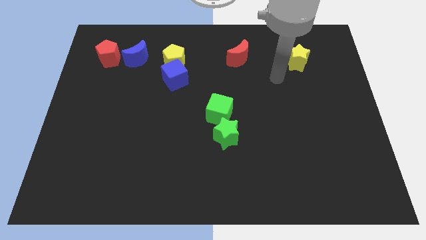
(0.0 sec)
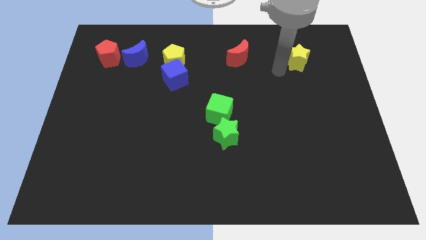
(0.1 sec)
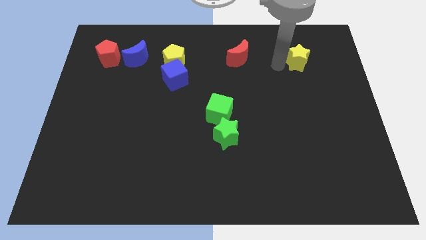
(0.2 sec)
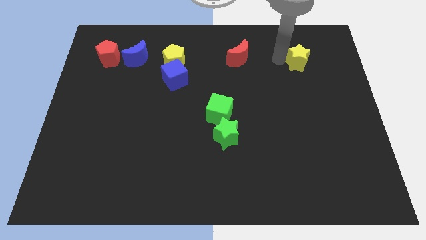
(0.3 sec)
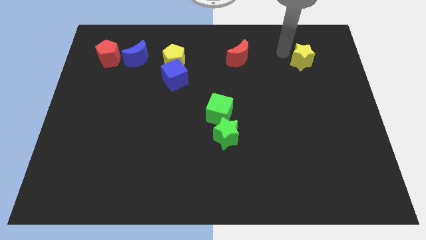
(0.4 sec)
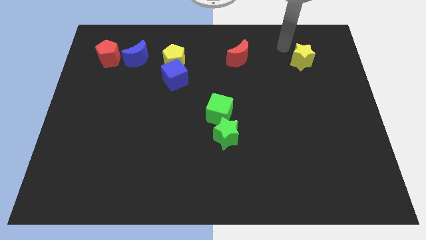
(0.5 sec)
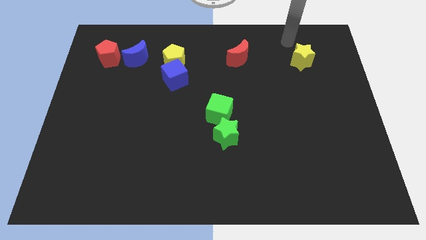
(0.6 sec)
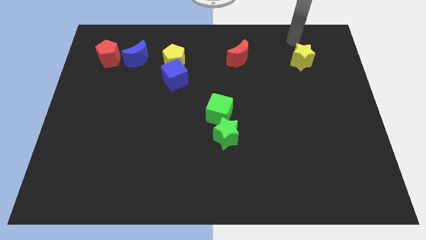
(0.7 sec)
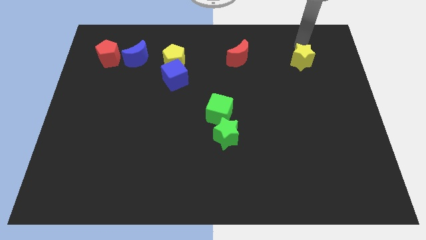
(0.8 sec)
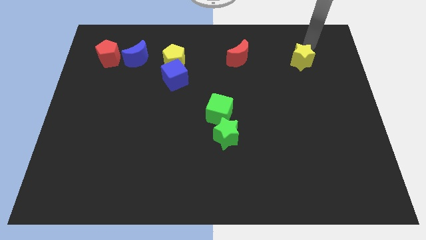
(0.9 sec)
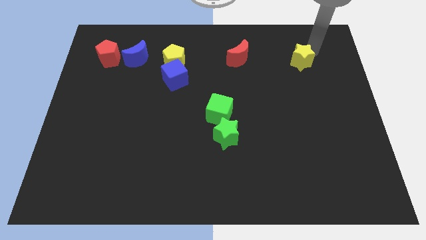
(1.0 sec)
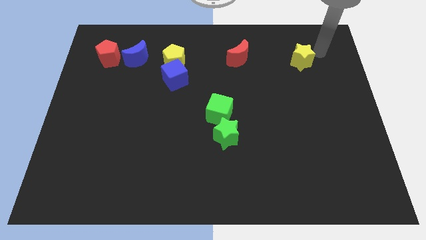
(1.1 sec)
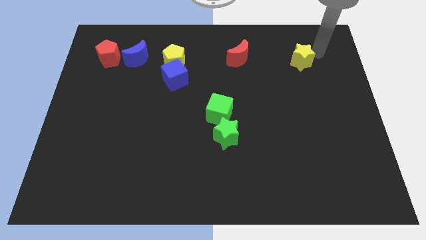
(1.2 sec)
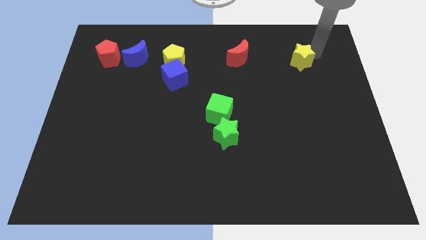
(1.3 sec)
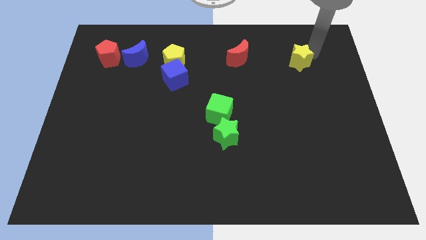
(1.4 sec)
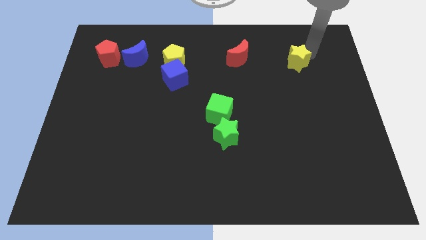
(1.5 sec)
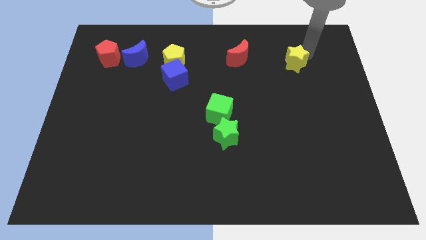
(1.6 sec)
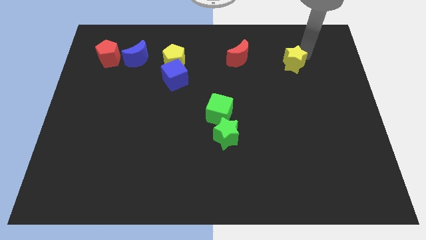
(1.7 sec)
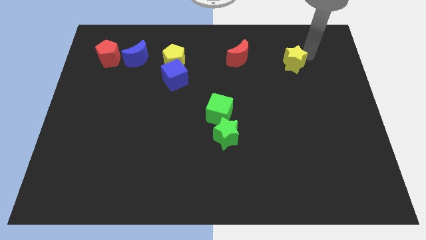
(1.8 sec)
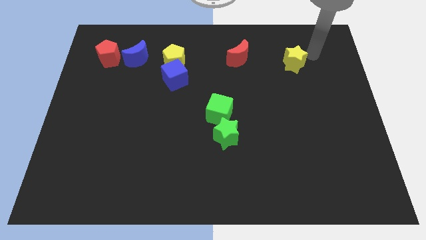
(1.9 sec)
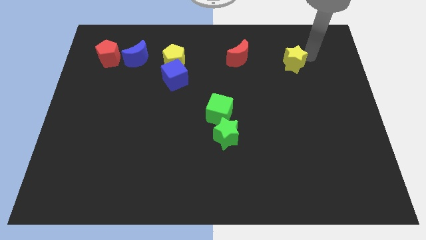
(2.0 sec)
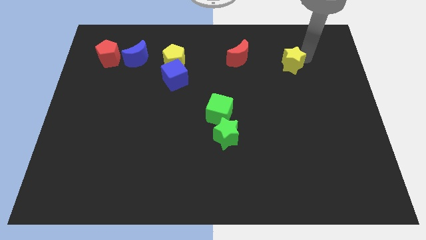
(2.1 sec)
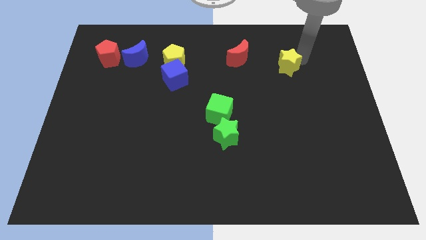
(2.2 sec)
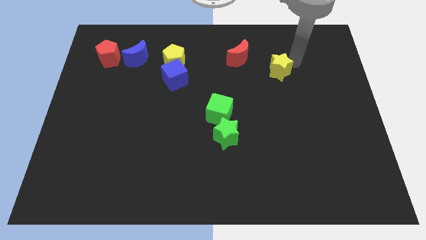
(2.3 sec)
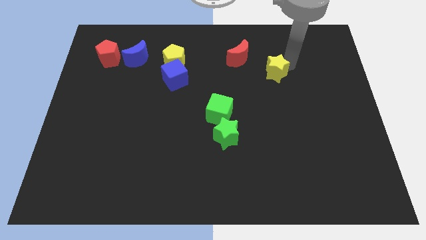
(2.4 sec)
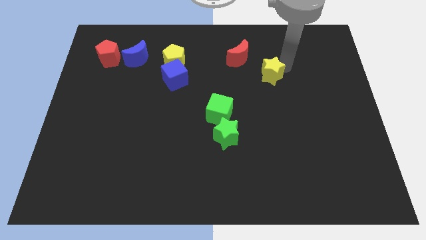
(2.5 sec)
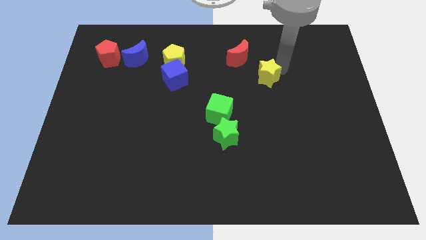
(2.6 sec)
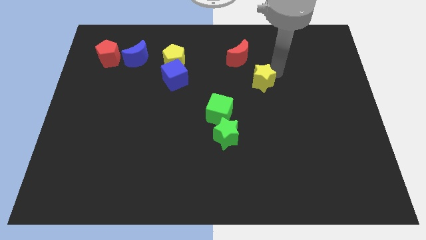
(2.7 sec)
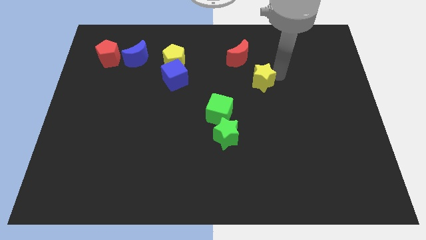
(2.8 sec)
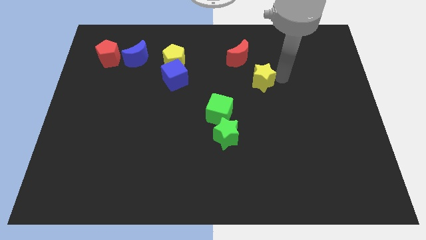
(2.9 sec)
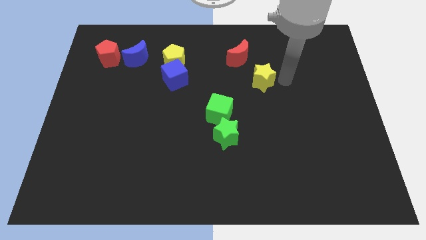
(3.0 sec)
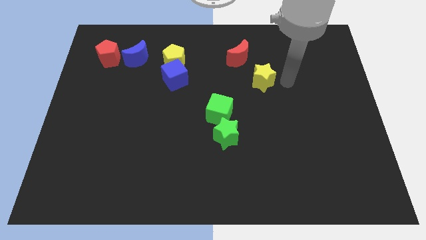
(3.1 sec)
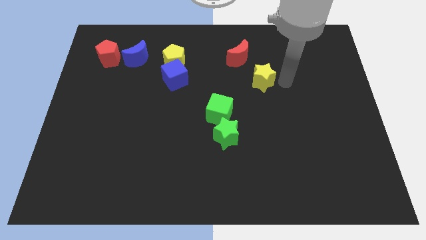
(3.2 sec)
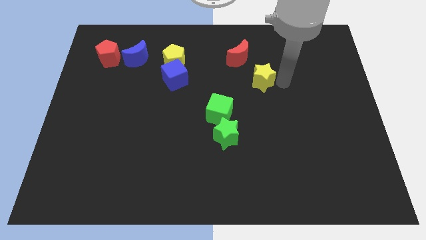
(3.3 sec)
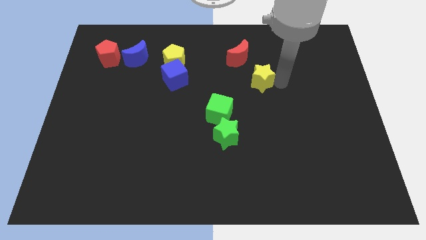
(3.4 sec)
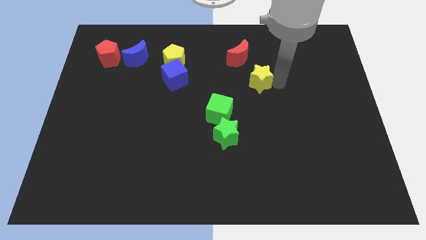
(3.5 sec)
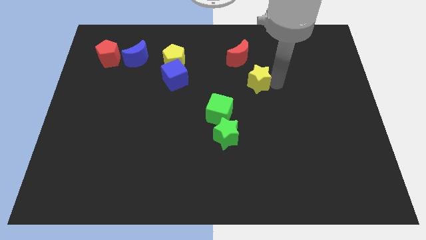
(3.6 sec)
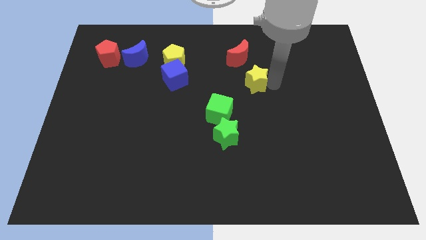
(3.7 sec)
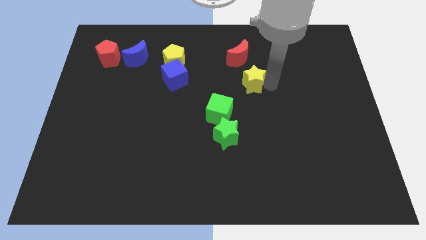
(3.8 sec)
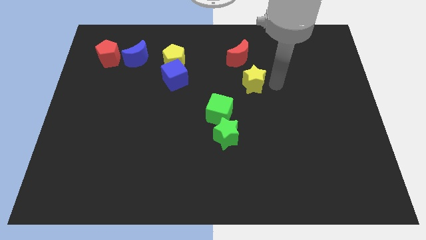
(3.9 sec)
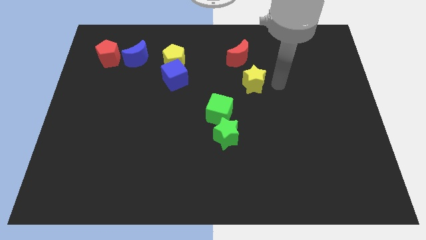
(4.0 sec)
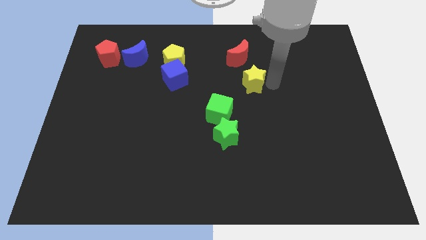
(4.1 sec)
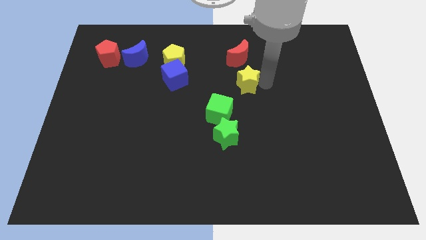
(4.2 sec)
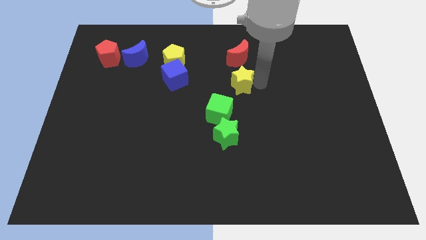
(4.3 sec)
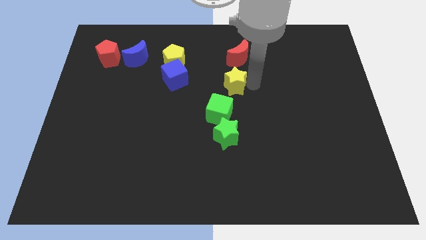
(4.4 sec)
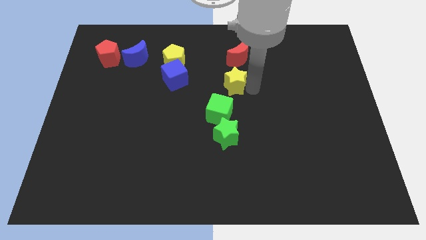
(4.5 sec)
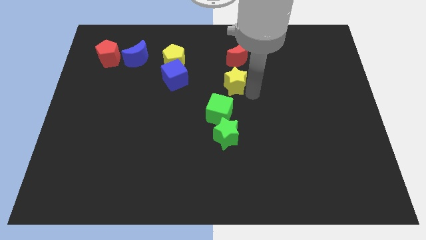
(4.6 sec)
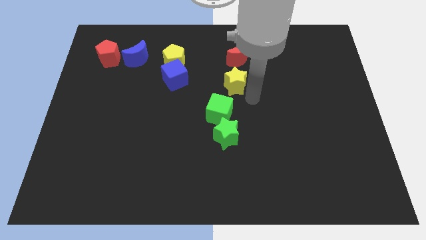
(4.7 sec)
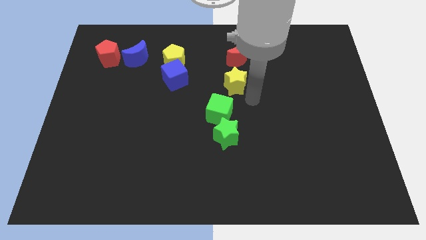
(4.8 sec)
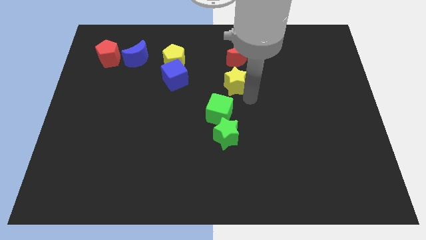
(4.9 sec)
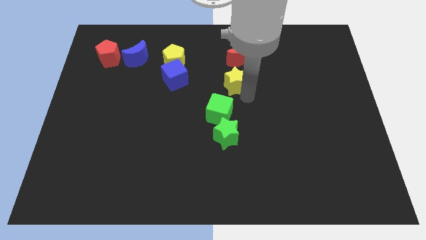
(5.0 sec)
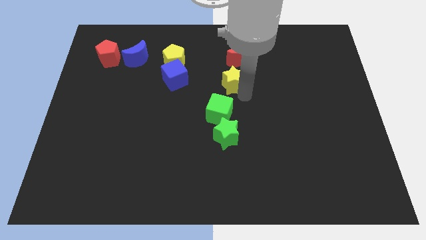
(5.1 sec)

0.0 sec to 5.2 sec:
slide the yellow star to the bottom left of the red moon

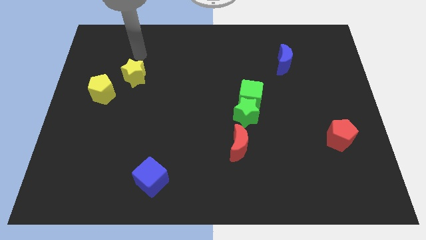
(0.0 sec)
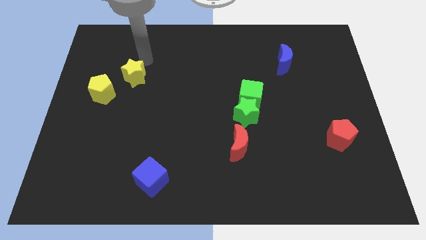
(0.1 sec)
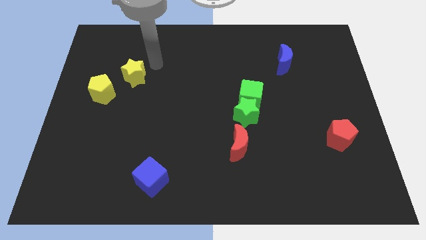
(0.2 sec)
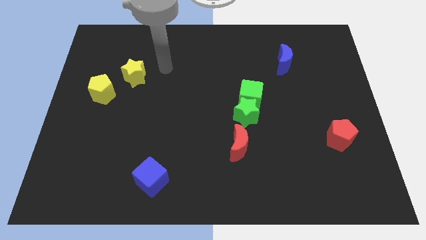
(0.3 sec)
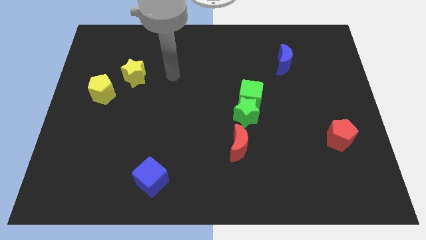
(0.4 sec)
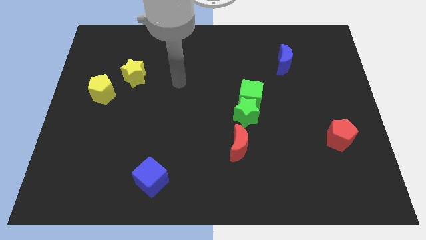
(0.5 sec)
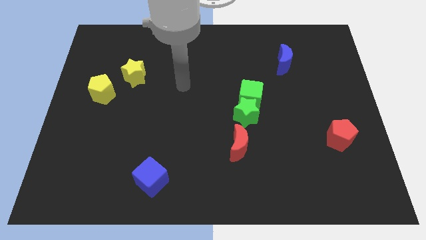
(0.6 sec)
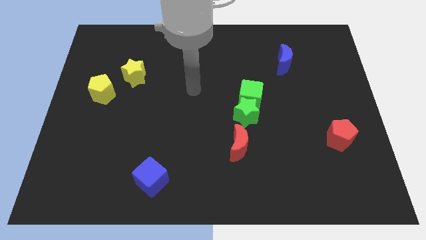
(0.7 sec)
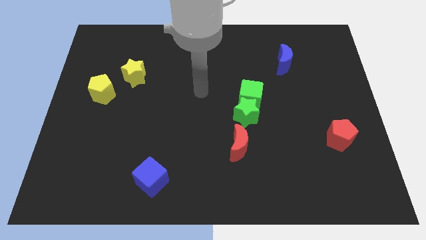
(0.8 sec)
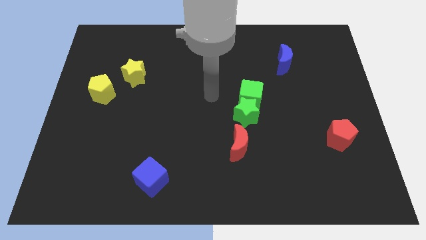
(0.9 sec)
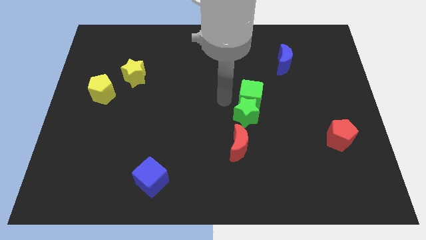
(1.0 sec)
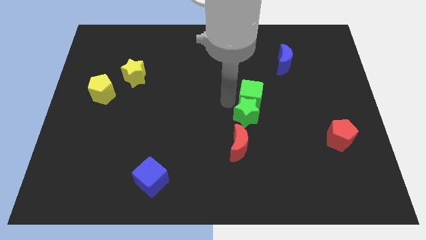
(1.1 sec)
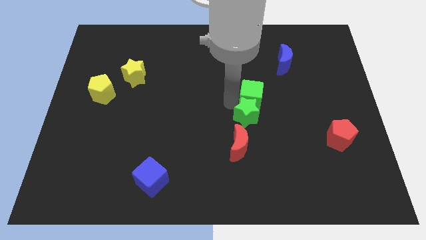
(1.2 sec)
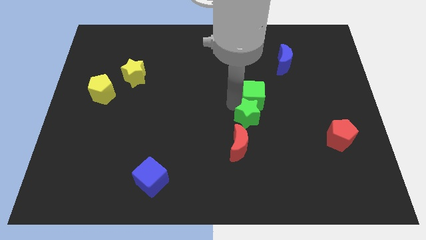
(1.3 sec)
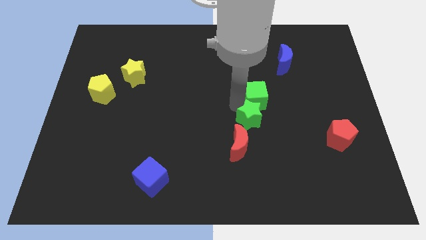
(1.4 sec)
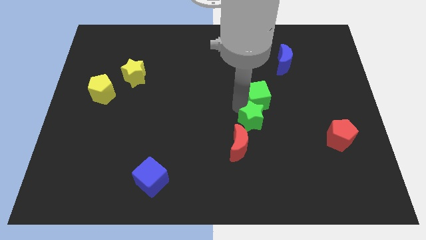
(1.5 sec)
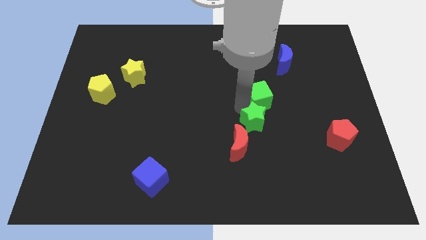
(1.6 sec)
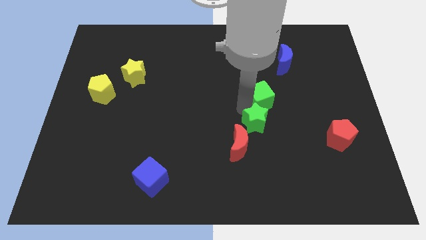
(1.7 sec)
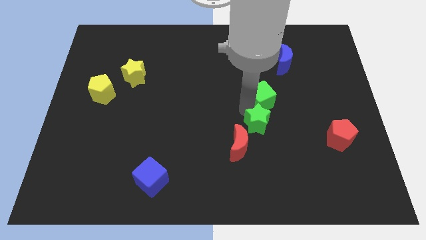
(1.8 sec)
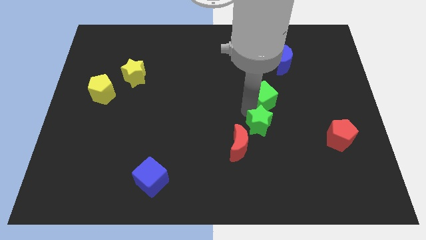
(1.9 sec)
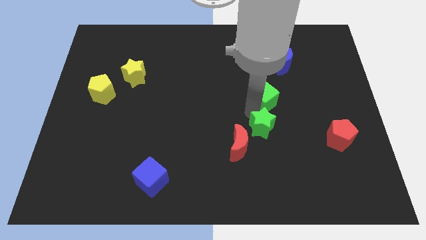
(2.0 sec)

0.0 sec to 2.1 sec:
push the green star just right of the red moon

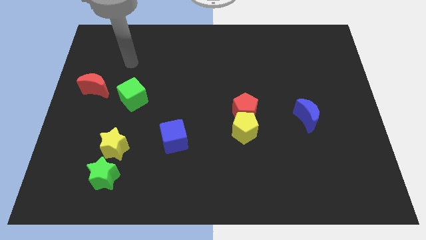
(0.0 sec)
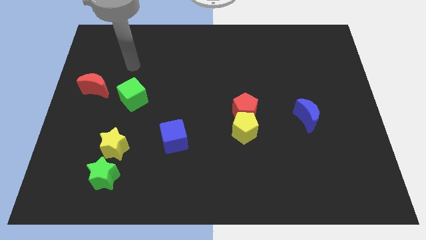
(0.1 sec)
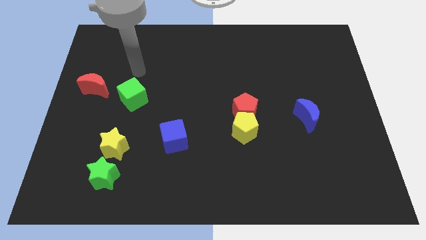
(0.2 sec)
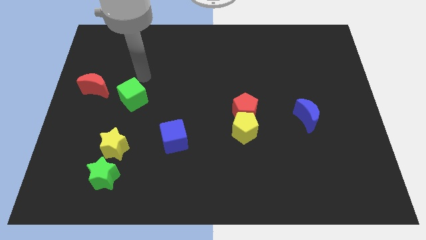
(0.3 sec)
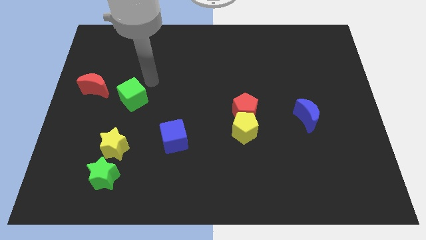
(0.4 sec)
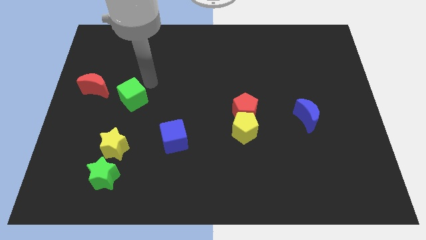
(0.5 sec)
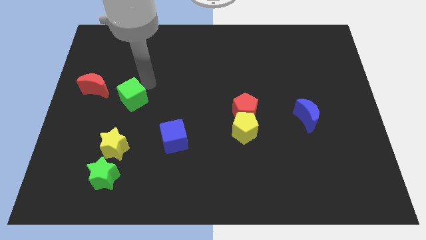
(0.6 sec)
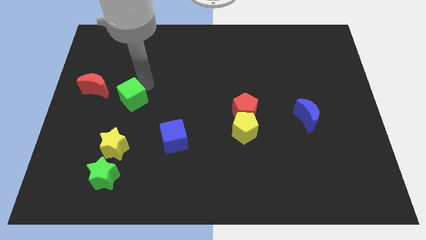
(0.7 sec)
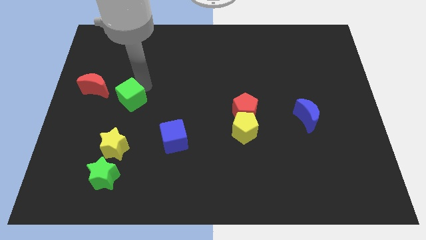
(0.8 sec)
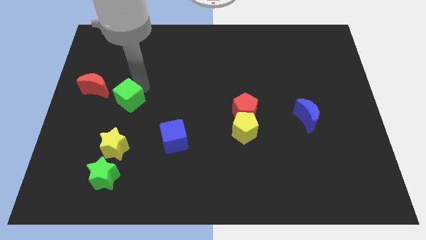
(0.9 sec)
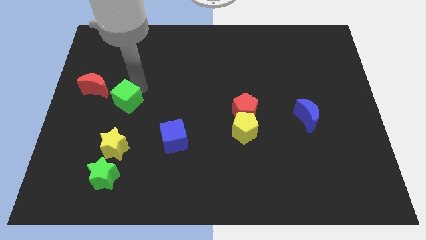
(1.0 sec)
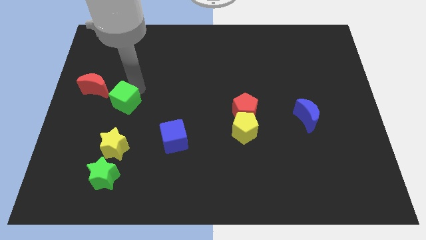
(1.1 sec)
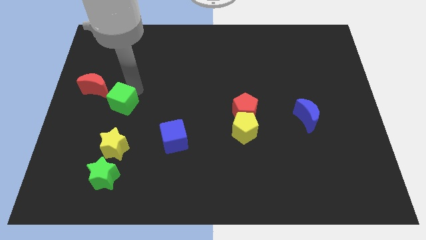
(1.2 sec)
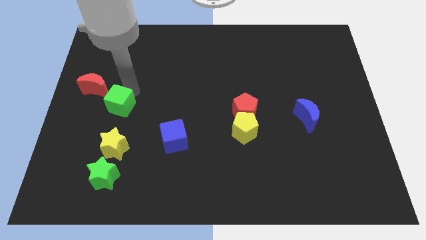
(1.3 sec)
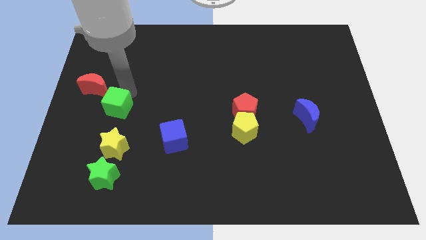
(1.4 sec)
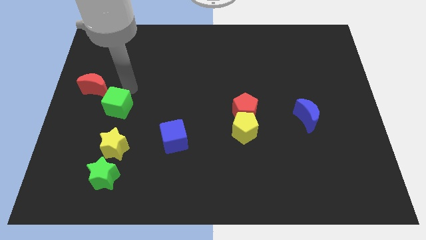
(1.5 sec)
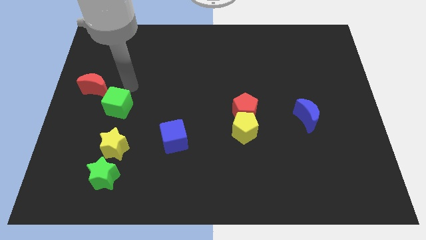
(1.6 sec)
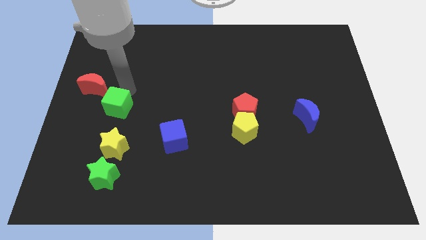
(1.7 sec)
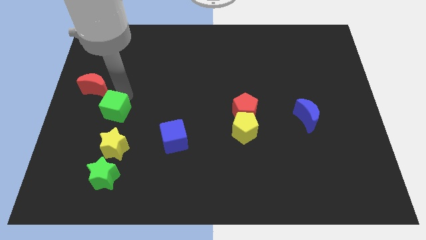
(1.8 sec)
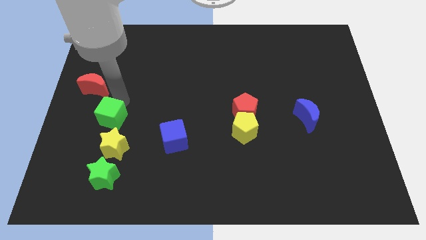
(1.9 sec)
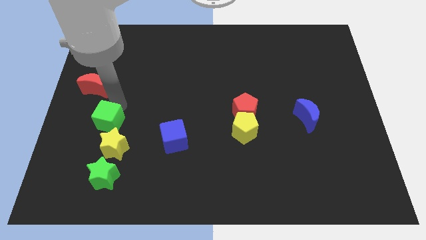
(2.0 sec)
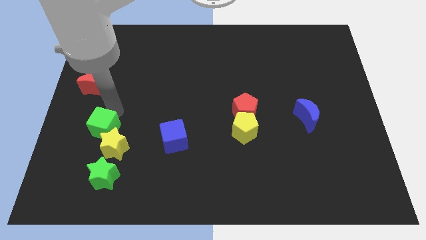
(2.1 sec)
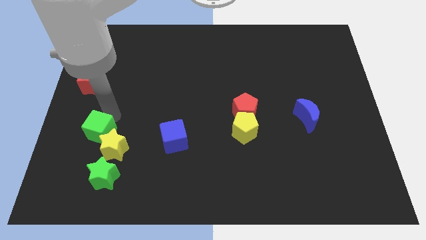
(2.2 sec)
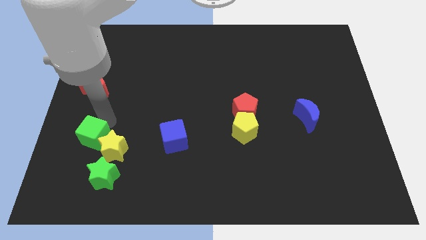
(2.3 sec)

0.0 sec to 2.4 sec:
push the green cube diagonally up and to the left of the green star
